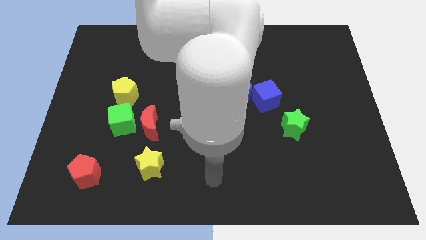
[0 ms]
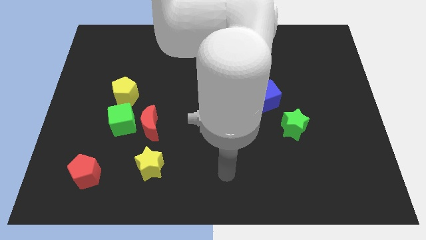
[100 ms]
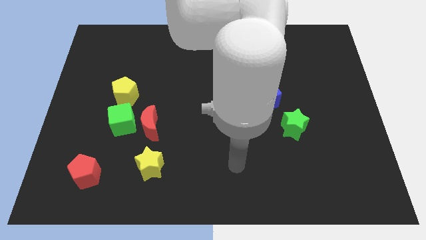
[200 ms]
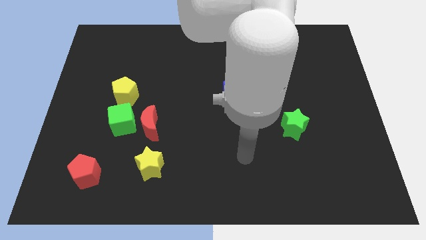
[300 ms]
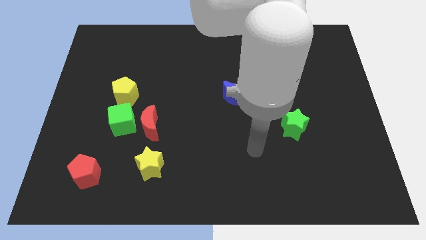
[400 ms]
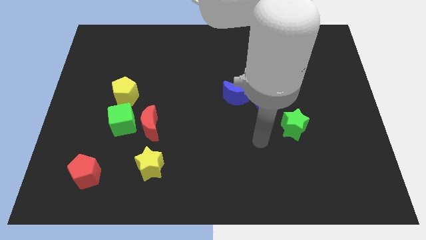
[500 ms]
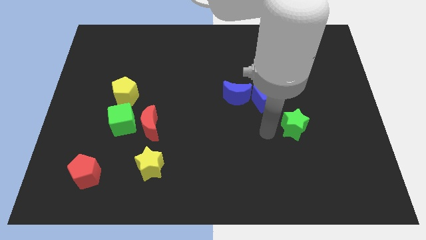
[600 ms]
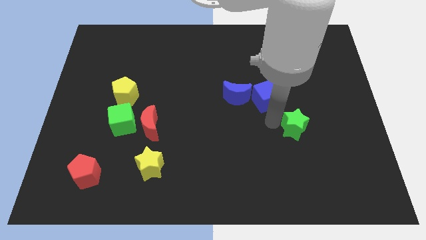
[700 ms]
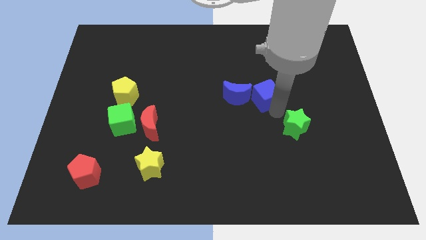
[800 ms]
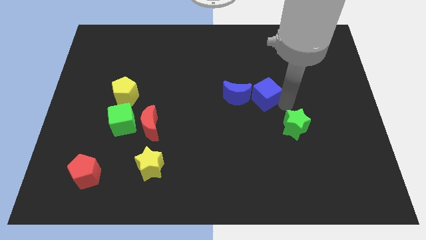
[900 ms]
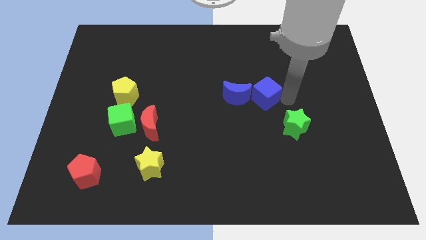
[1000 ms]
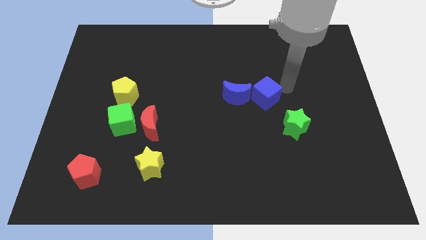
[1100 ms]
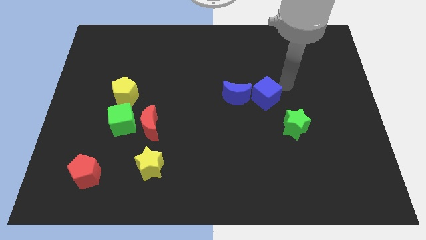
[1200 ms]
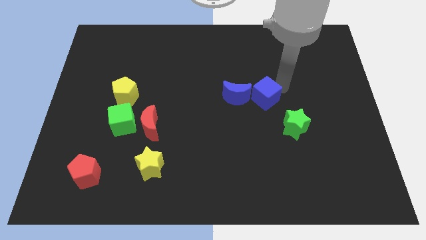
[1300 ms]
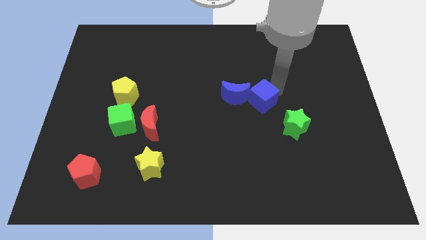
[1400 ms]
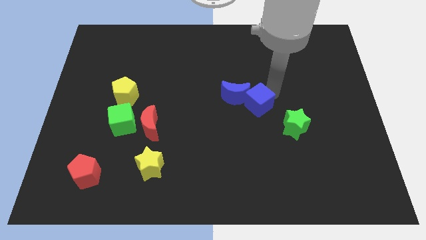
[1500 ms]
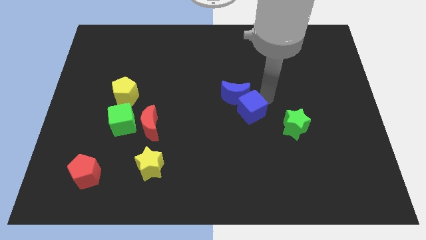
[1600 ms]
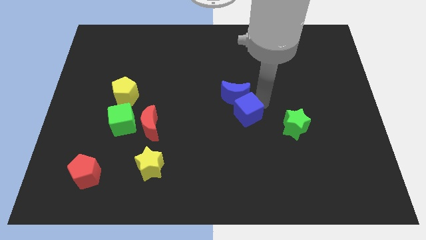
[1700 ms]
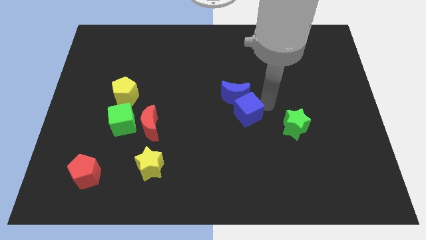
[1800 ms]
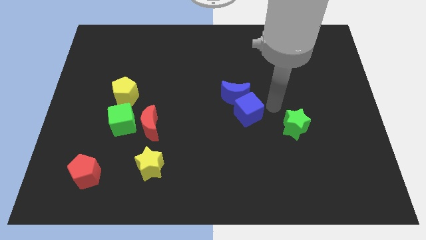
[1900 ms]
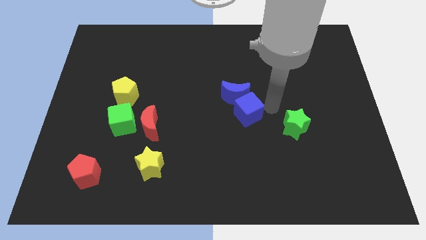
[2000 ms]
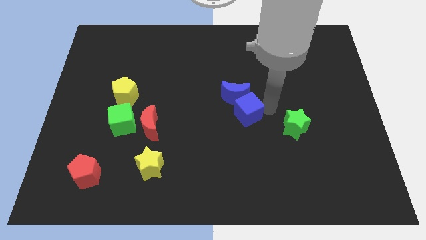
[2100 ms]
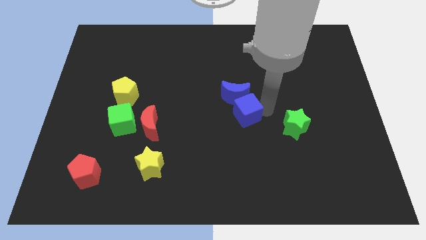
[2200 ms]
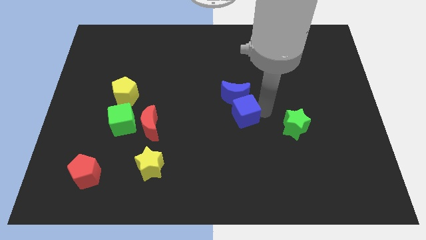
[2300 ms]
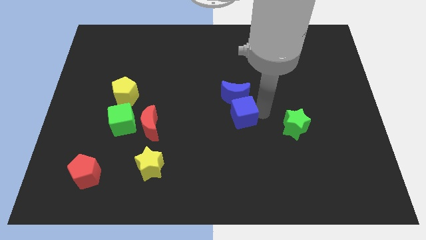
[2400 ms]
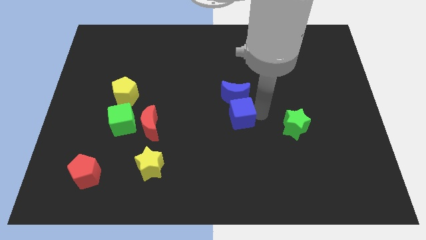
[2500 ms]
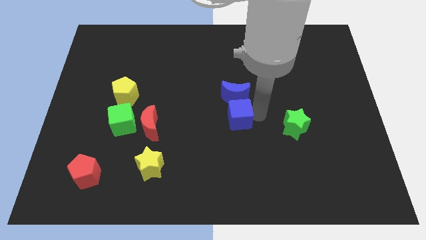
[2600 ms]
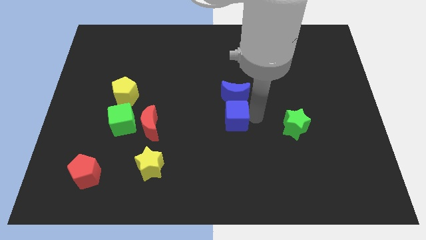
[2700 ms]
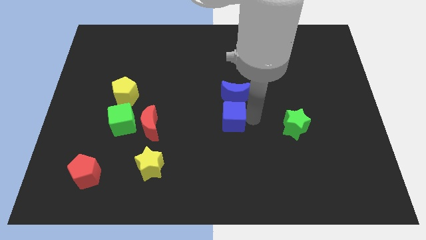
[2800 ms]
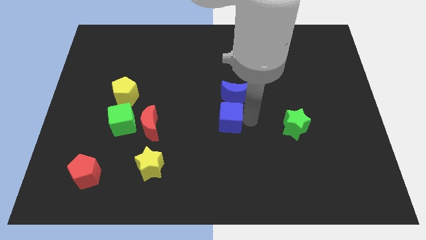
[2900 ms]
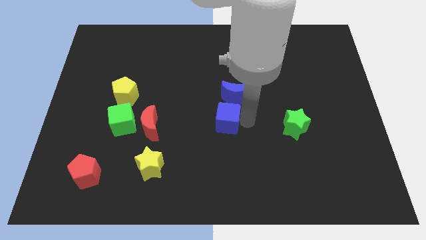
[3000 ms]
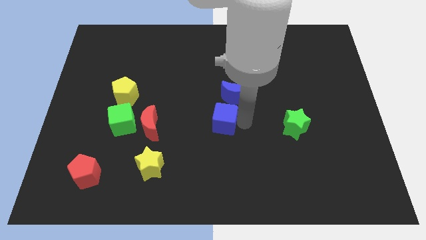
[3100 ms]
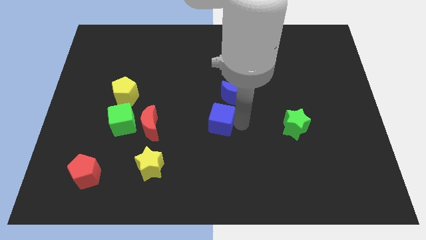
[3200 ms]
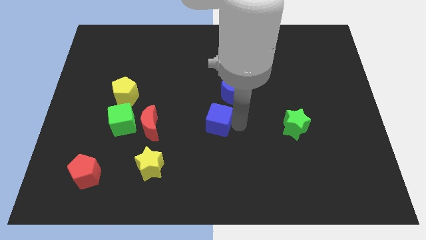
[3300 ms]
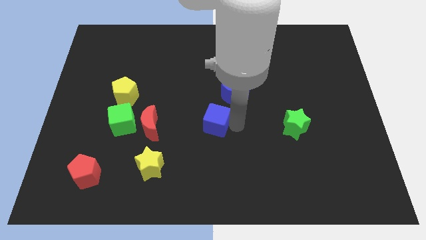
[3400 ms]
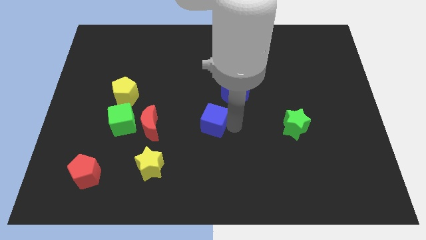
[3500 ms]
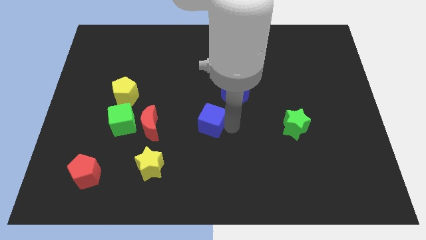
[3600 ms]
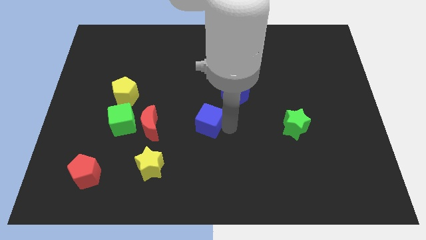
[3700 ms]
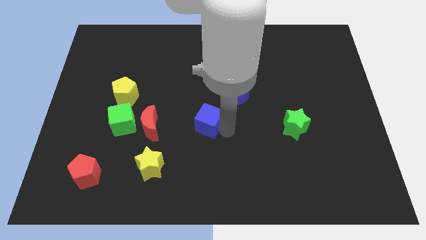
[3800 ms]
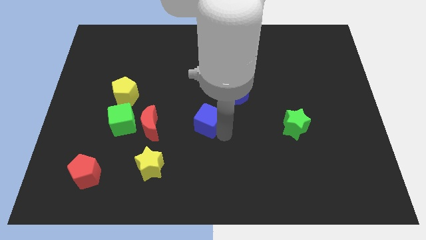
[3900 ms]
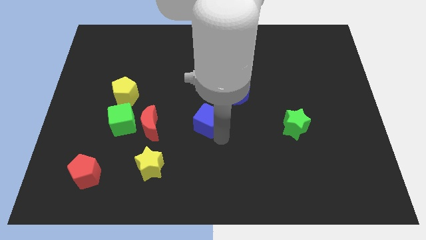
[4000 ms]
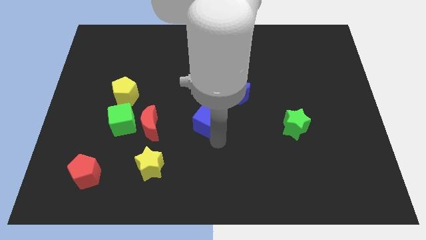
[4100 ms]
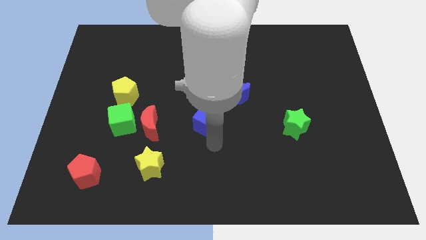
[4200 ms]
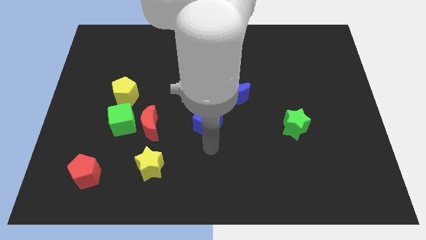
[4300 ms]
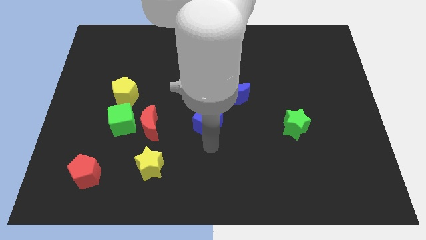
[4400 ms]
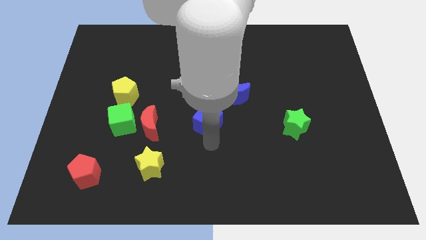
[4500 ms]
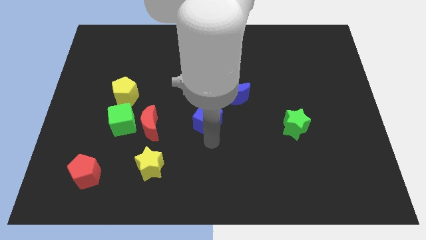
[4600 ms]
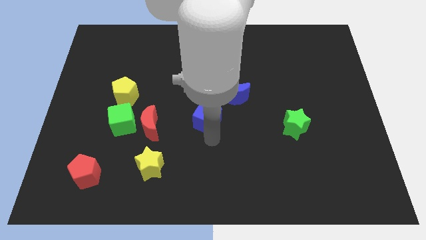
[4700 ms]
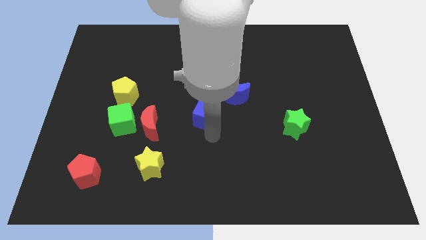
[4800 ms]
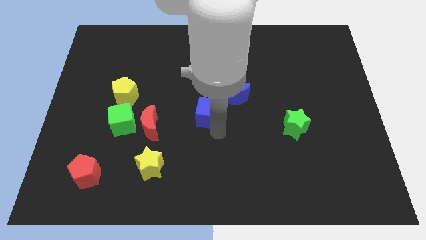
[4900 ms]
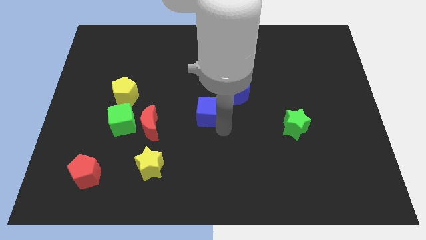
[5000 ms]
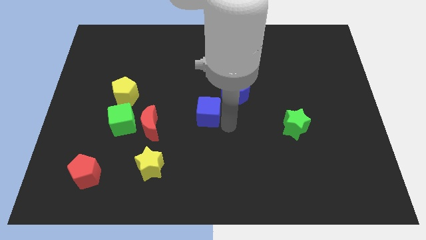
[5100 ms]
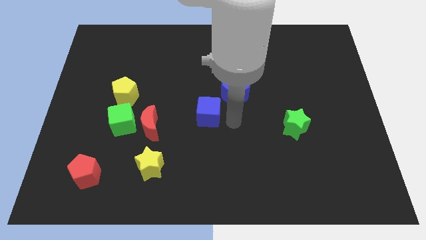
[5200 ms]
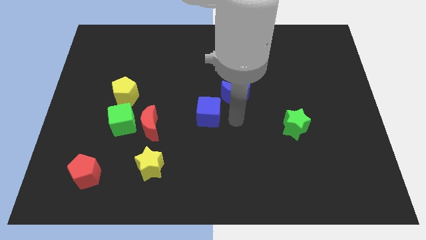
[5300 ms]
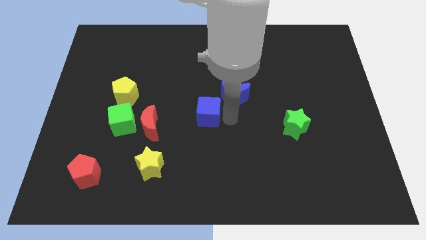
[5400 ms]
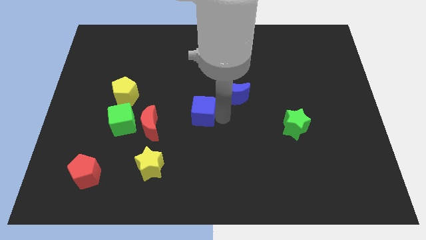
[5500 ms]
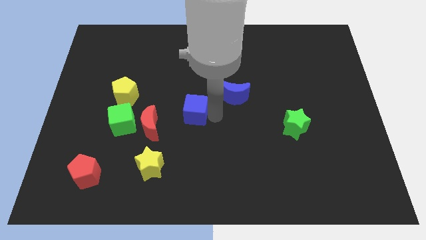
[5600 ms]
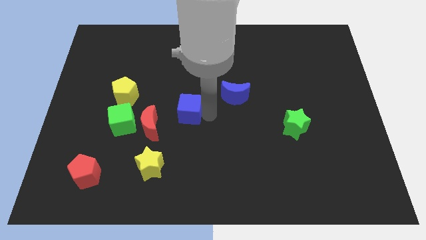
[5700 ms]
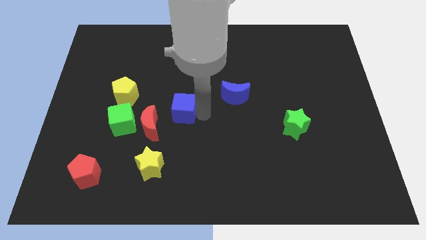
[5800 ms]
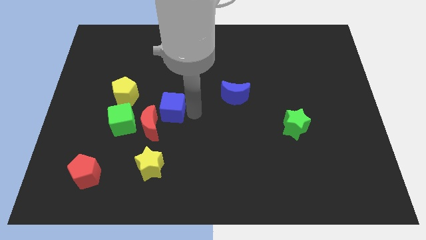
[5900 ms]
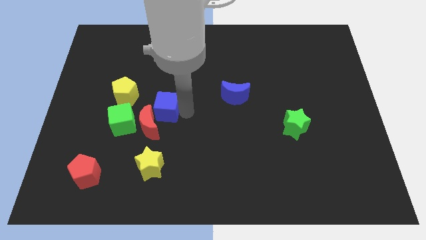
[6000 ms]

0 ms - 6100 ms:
put the blue cube to the top right side of the green cube
